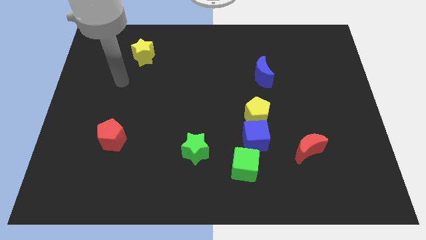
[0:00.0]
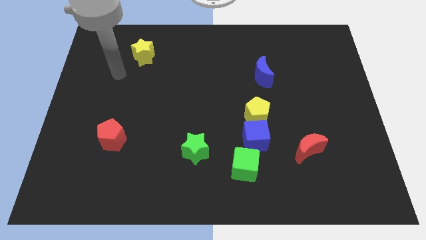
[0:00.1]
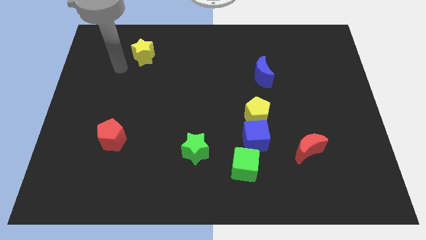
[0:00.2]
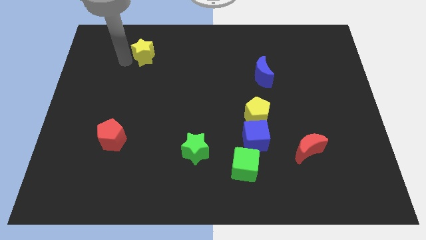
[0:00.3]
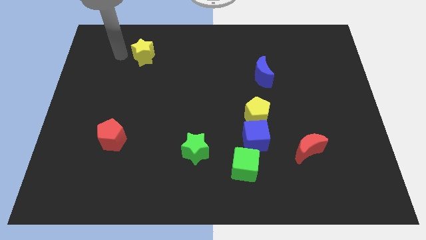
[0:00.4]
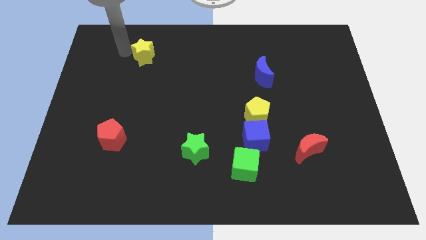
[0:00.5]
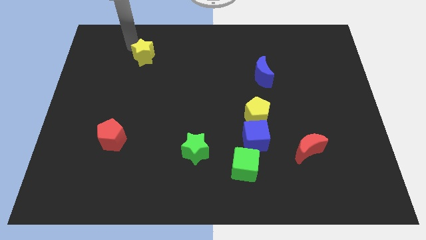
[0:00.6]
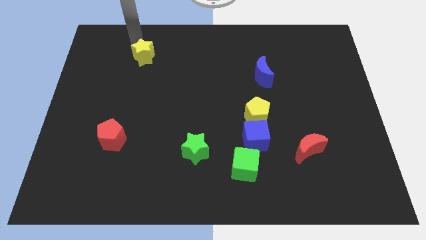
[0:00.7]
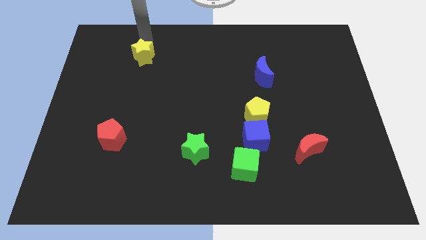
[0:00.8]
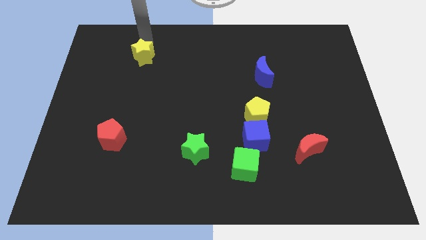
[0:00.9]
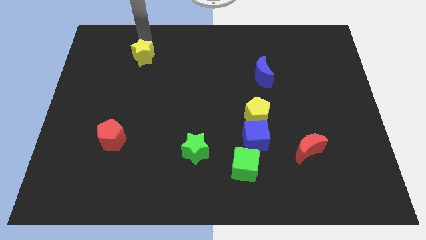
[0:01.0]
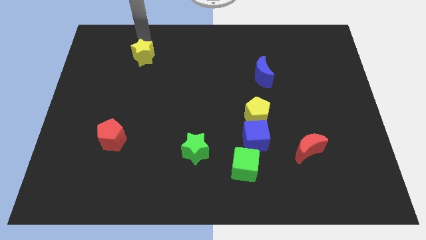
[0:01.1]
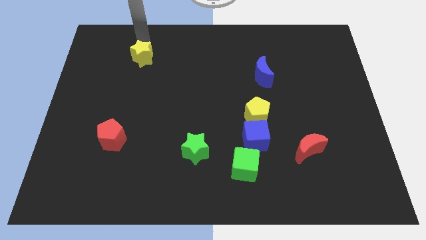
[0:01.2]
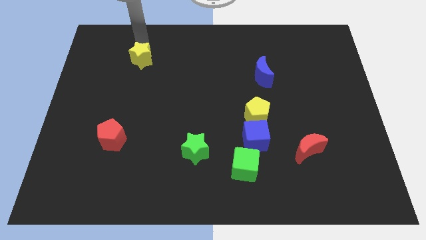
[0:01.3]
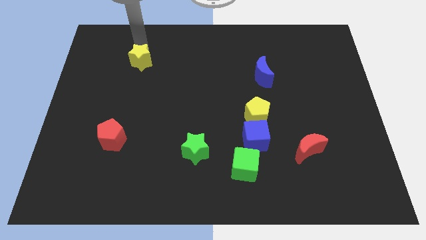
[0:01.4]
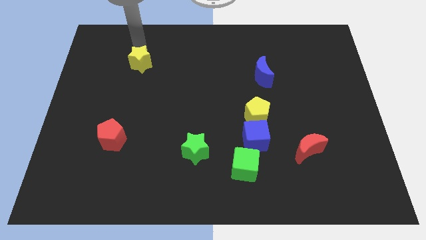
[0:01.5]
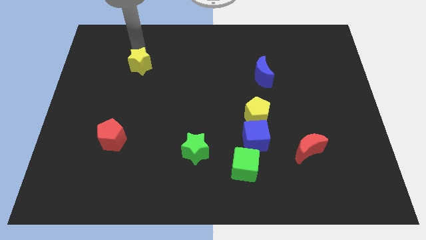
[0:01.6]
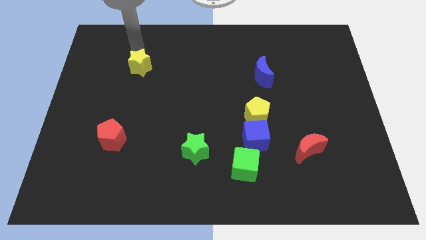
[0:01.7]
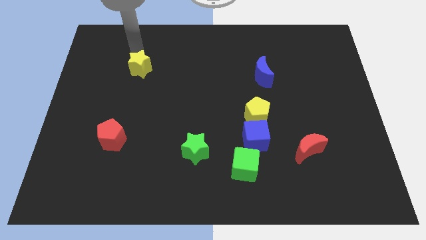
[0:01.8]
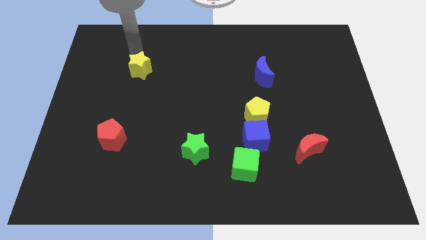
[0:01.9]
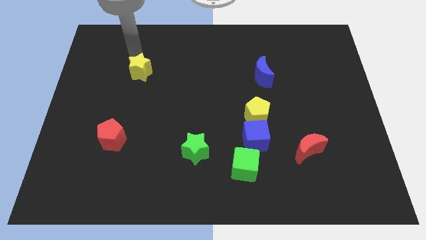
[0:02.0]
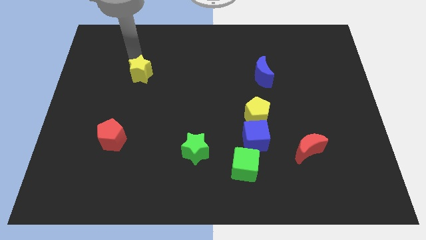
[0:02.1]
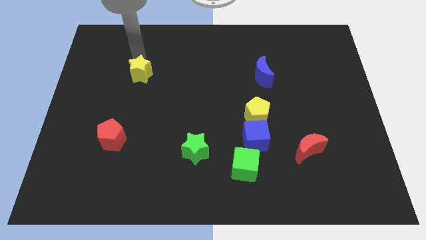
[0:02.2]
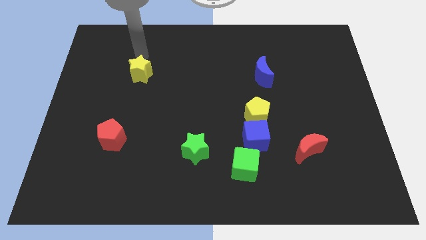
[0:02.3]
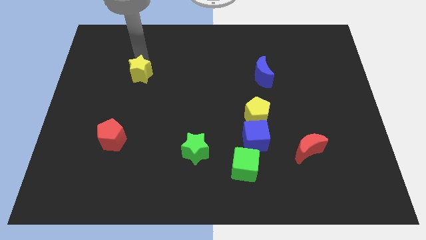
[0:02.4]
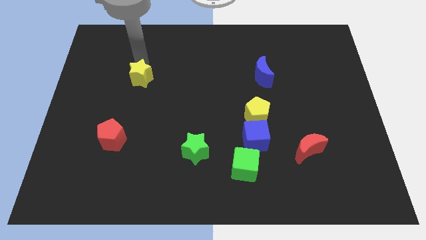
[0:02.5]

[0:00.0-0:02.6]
slide the yellow star downwards a little

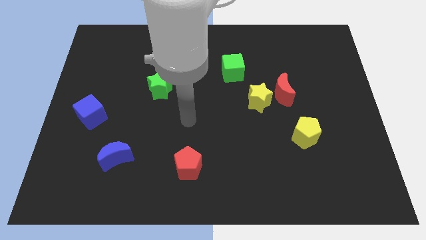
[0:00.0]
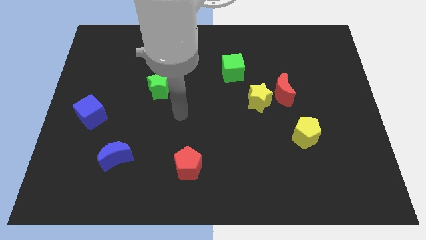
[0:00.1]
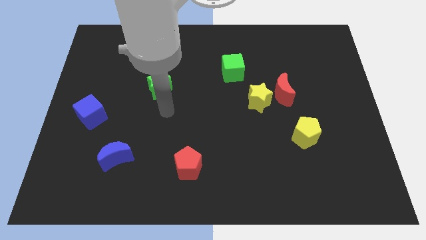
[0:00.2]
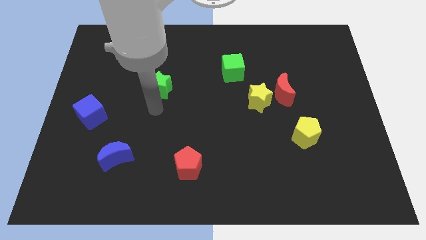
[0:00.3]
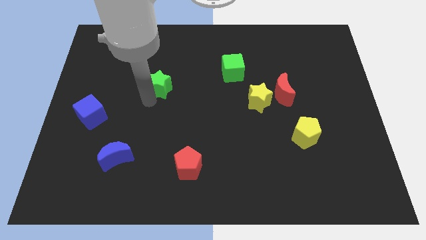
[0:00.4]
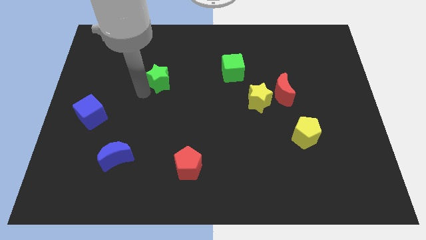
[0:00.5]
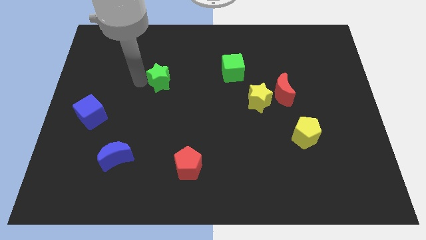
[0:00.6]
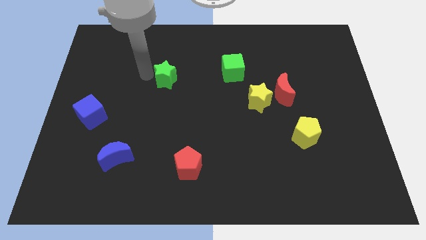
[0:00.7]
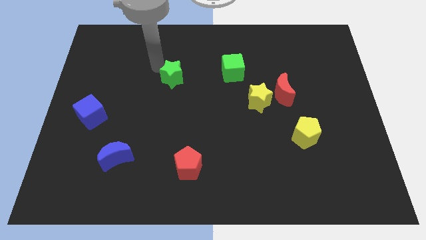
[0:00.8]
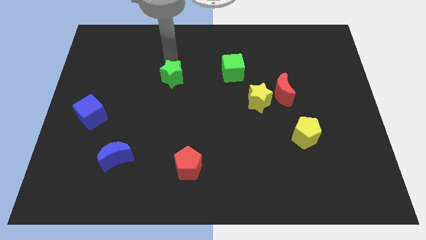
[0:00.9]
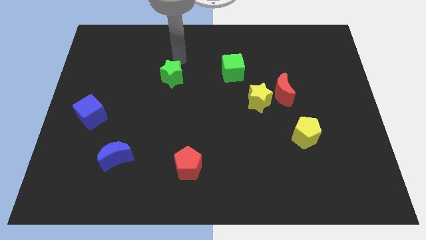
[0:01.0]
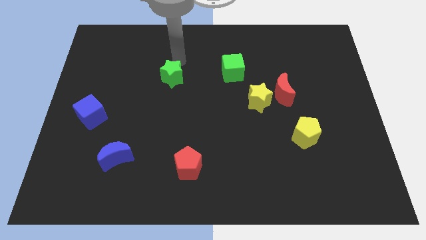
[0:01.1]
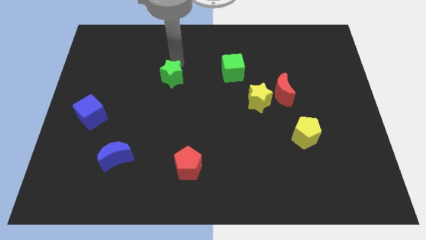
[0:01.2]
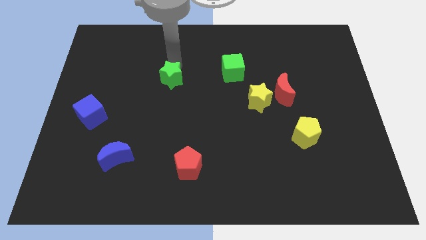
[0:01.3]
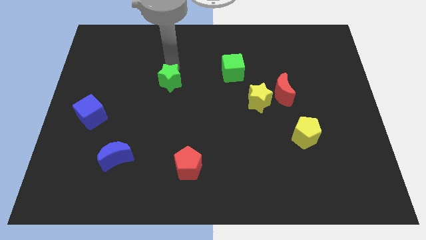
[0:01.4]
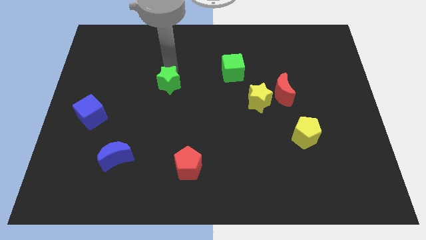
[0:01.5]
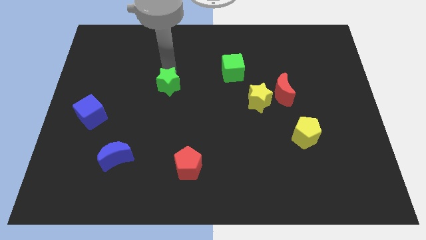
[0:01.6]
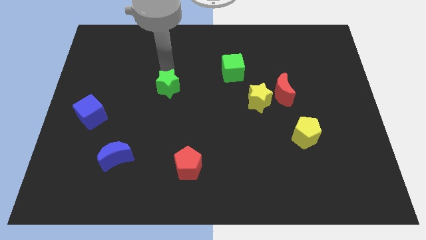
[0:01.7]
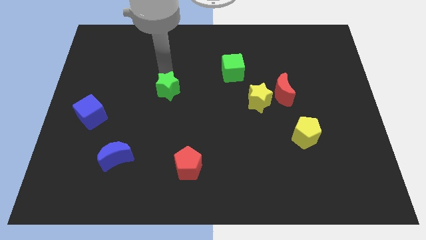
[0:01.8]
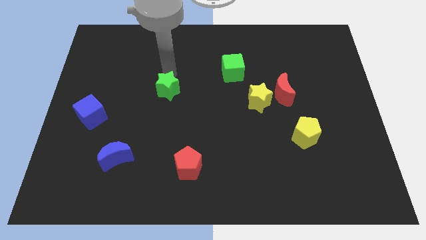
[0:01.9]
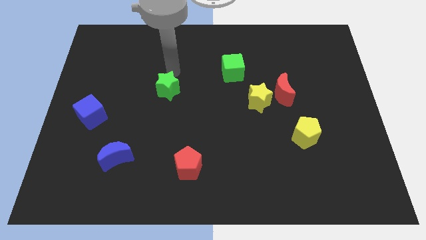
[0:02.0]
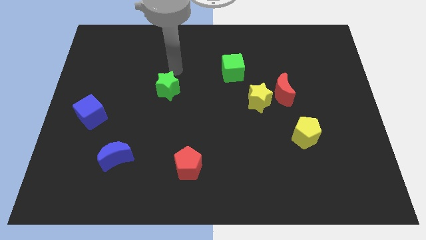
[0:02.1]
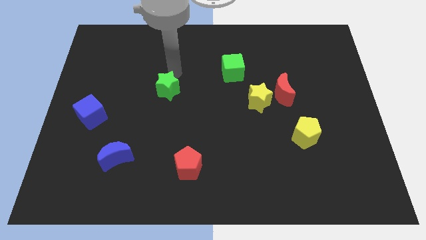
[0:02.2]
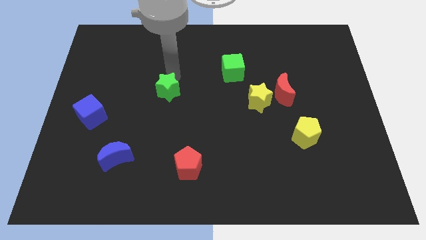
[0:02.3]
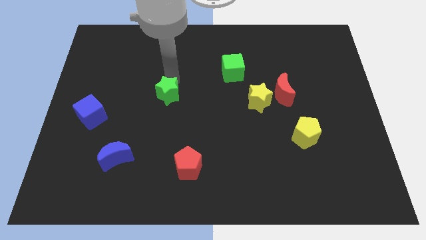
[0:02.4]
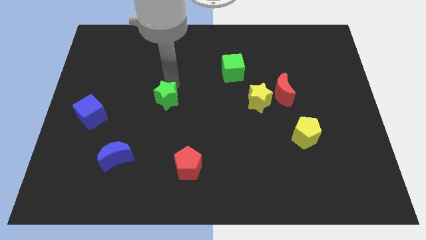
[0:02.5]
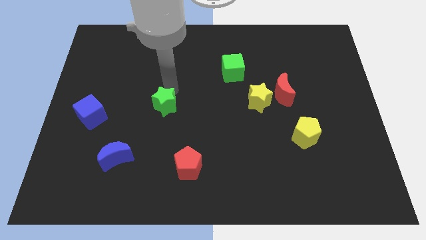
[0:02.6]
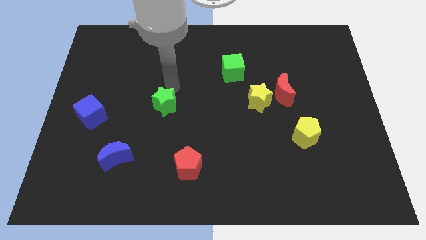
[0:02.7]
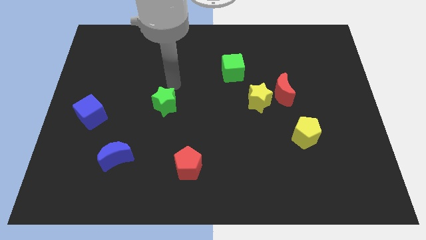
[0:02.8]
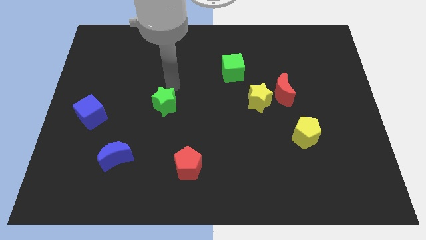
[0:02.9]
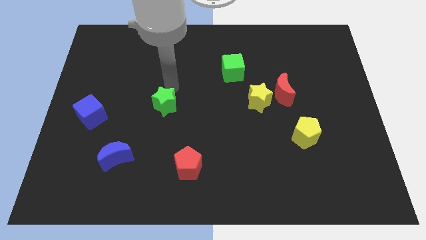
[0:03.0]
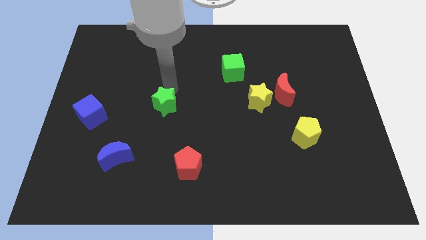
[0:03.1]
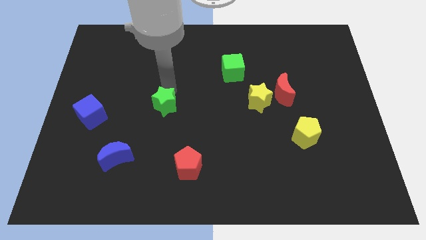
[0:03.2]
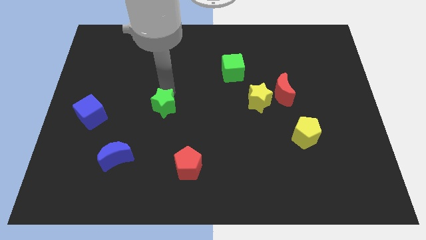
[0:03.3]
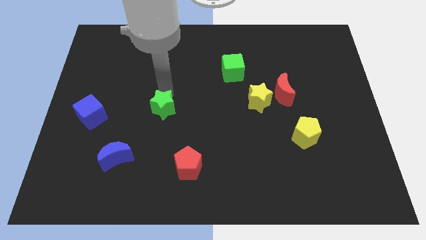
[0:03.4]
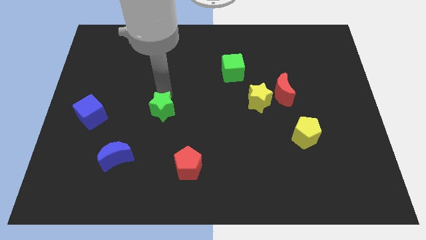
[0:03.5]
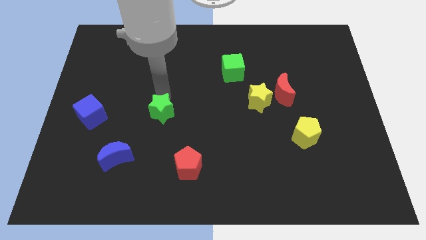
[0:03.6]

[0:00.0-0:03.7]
slightly push the green star downwards

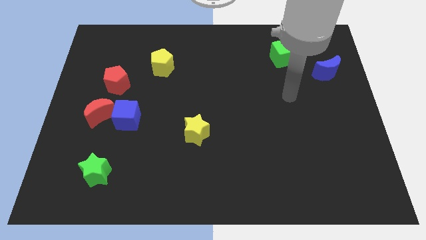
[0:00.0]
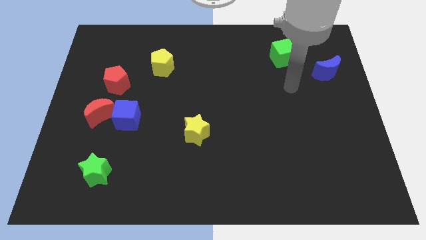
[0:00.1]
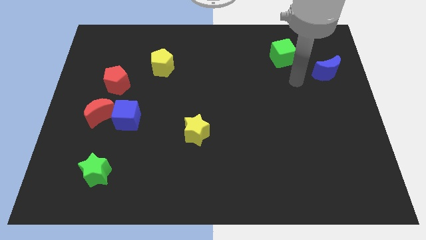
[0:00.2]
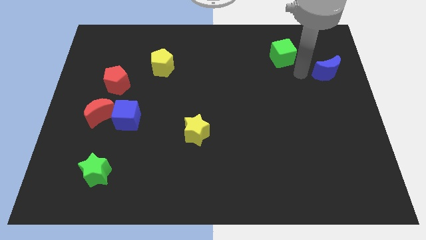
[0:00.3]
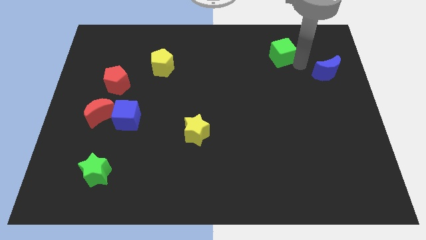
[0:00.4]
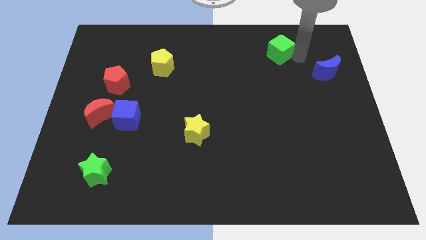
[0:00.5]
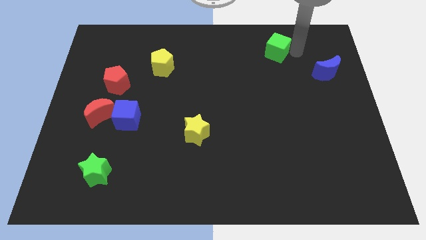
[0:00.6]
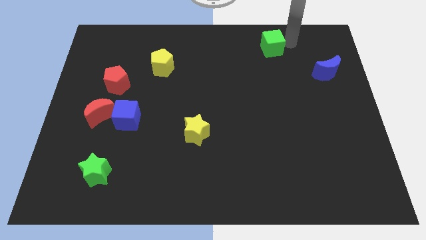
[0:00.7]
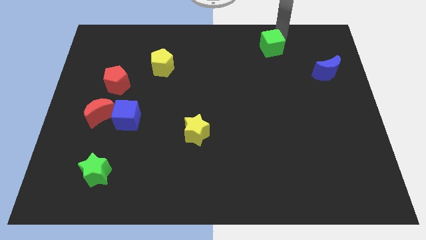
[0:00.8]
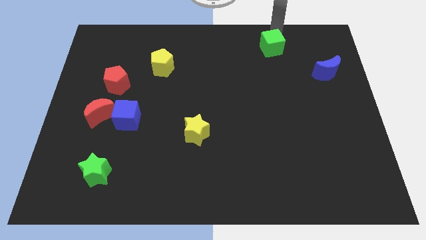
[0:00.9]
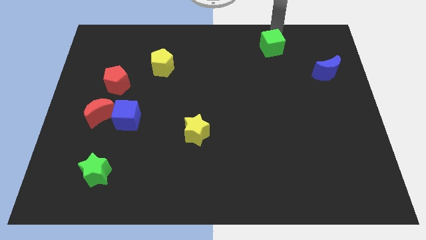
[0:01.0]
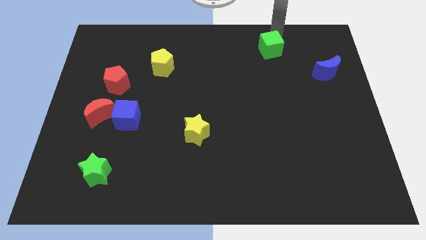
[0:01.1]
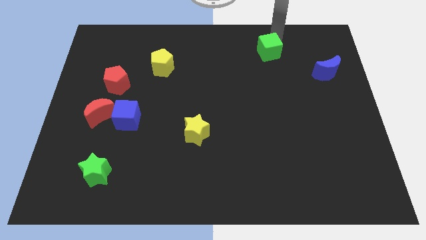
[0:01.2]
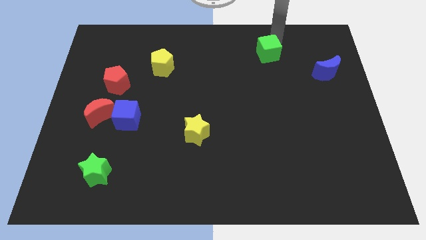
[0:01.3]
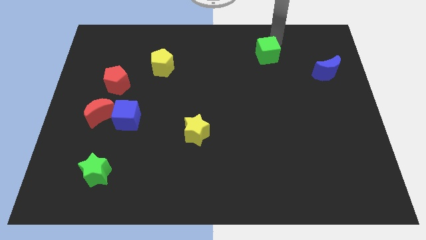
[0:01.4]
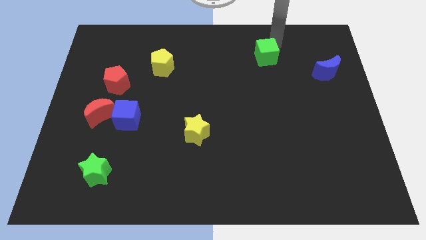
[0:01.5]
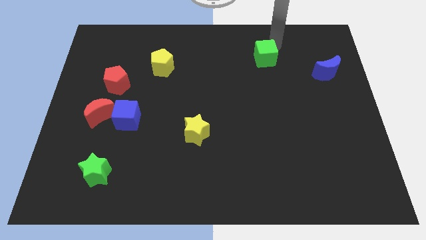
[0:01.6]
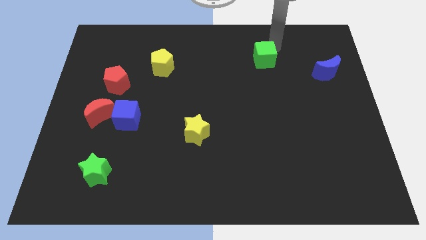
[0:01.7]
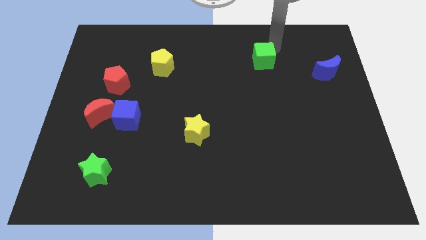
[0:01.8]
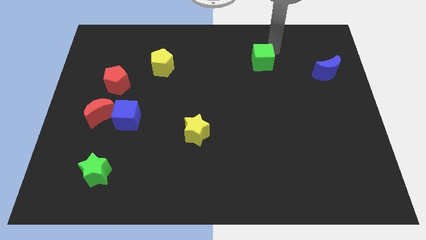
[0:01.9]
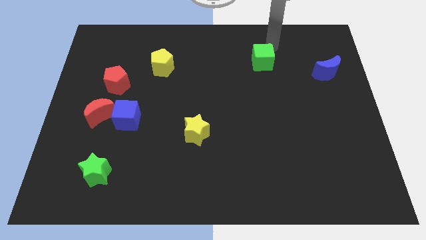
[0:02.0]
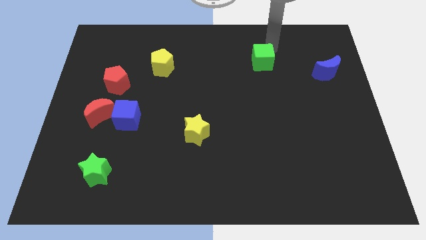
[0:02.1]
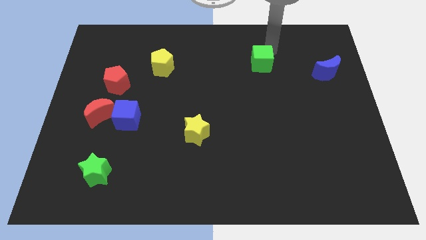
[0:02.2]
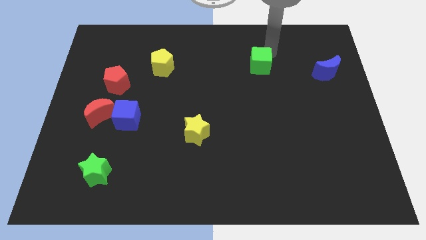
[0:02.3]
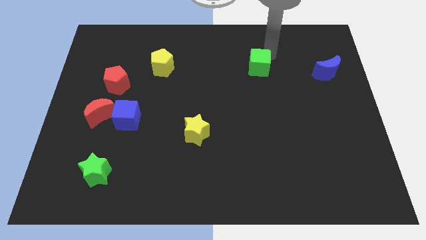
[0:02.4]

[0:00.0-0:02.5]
move the green cube down and then to the left a little bit
